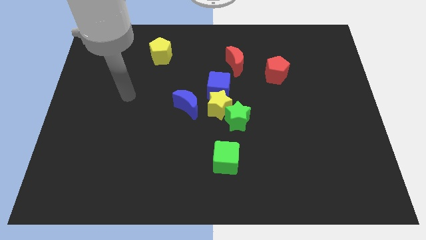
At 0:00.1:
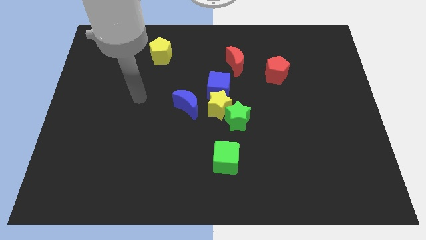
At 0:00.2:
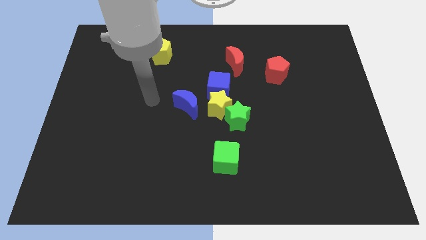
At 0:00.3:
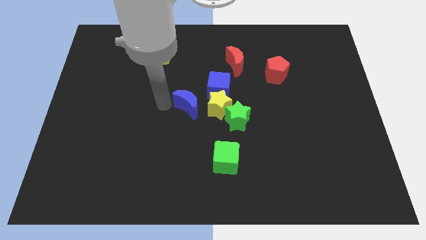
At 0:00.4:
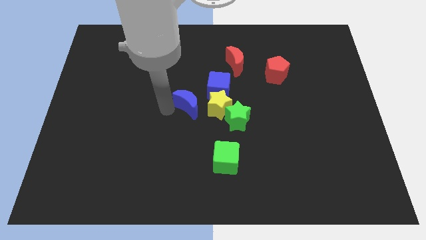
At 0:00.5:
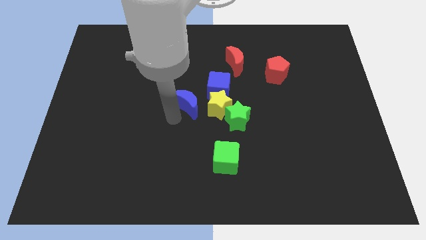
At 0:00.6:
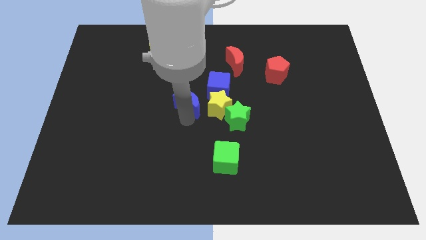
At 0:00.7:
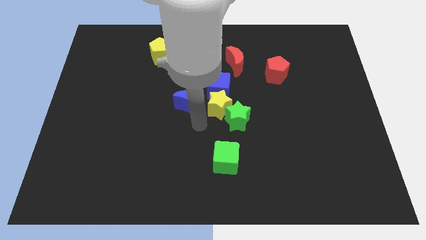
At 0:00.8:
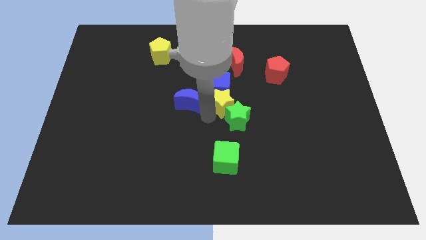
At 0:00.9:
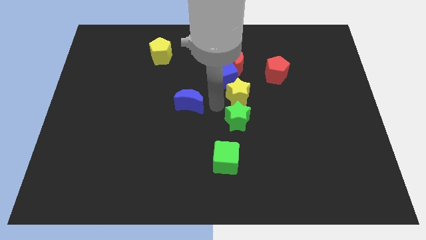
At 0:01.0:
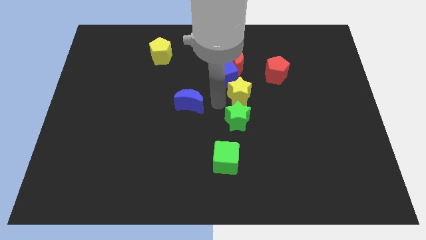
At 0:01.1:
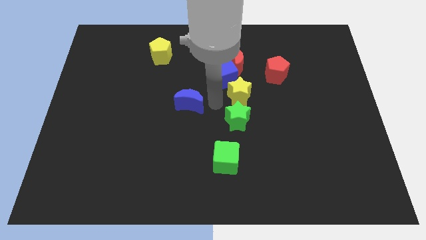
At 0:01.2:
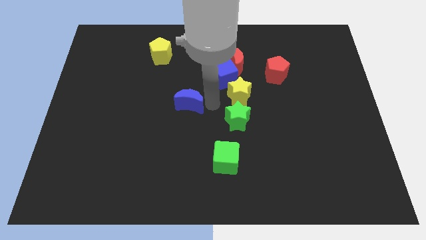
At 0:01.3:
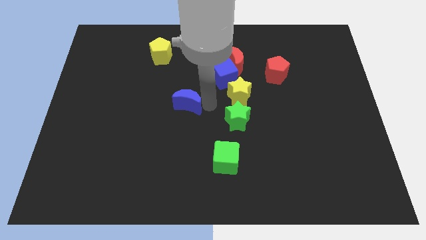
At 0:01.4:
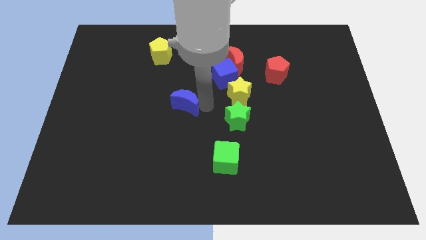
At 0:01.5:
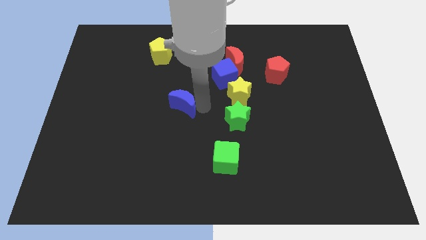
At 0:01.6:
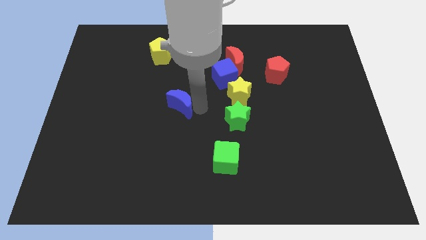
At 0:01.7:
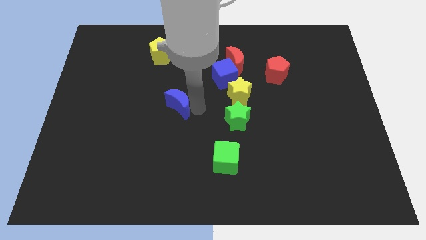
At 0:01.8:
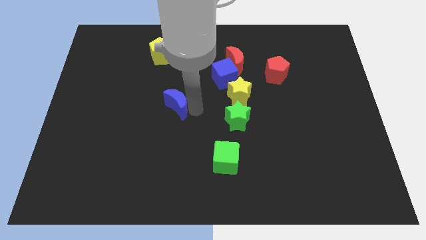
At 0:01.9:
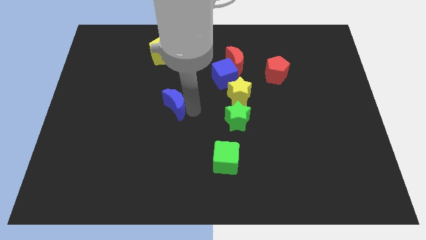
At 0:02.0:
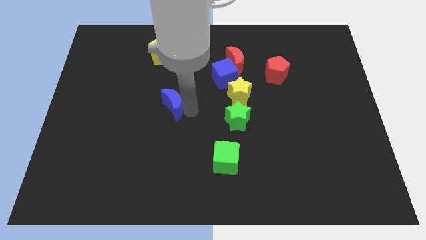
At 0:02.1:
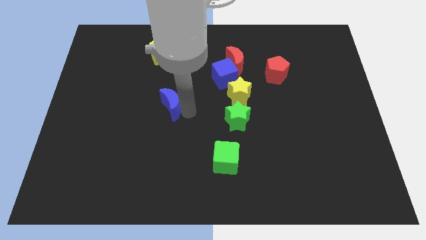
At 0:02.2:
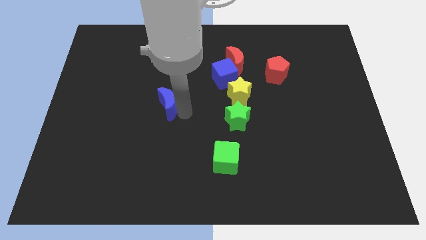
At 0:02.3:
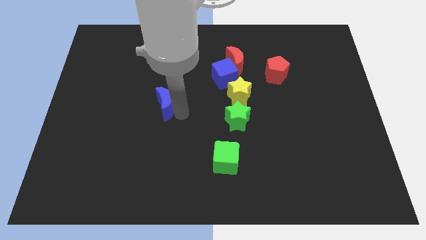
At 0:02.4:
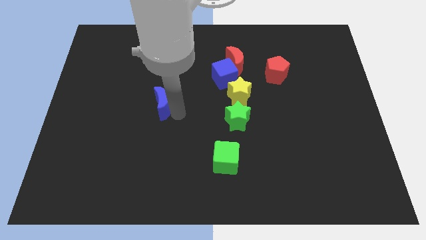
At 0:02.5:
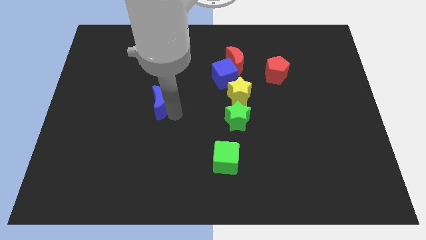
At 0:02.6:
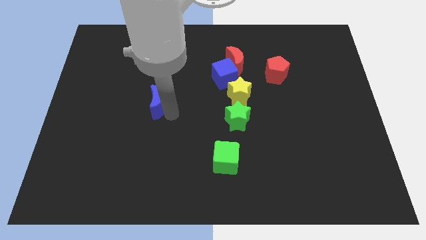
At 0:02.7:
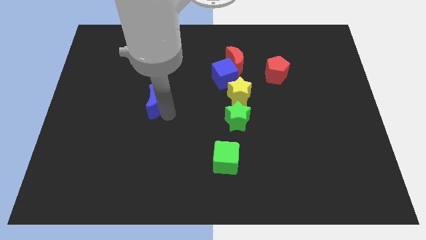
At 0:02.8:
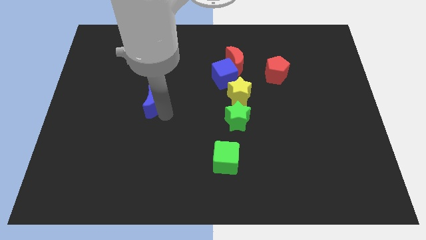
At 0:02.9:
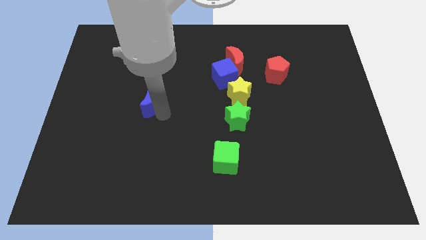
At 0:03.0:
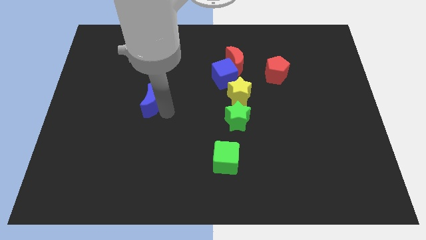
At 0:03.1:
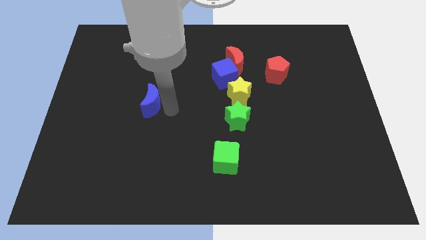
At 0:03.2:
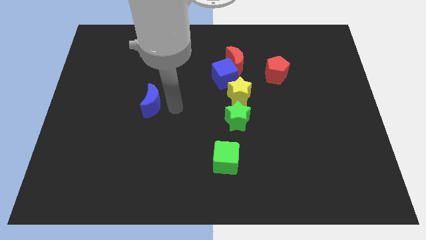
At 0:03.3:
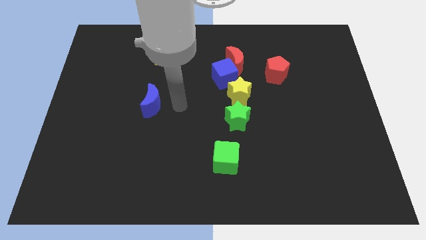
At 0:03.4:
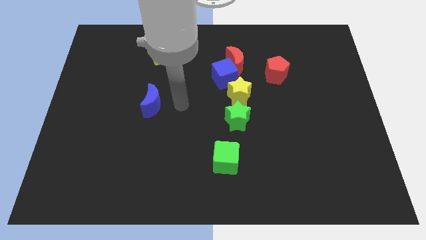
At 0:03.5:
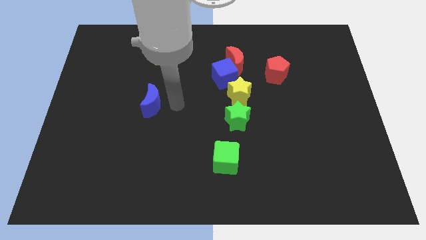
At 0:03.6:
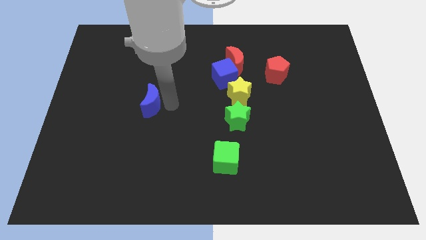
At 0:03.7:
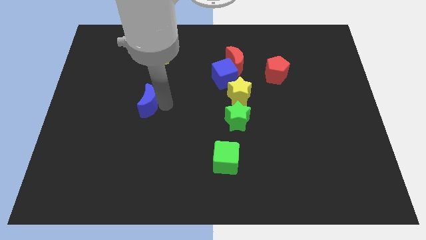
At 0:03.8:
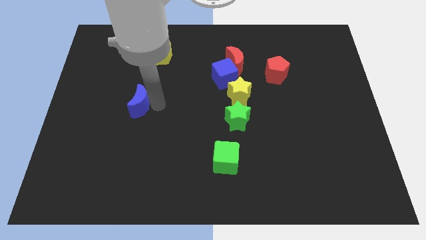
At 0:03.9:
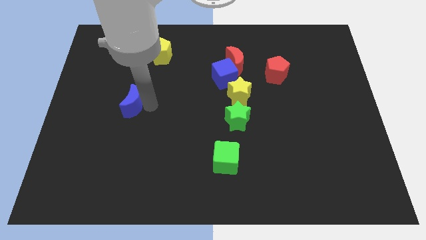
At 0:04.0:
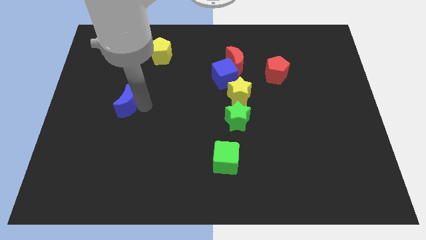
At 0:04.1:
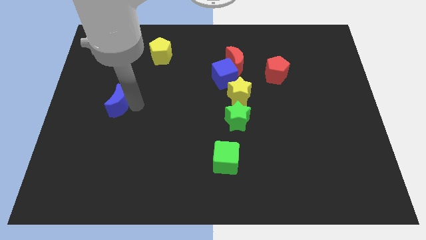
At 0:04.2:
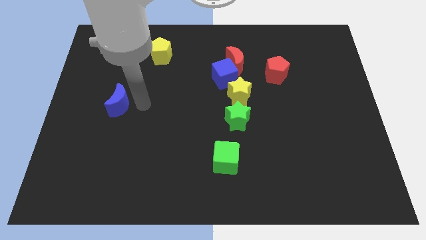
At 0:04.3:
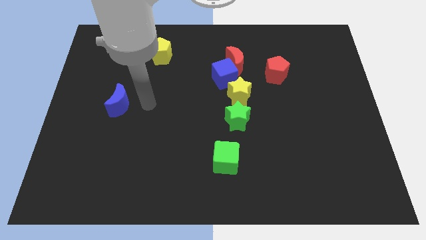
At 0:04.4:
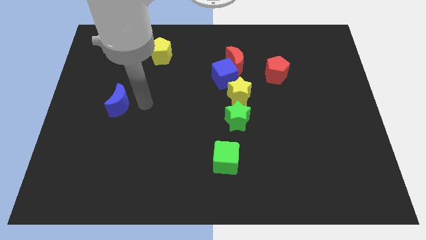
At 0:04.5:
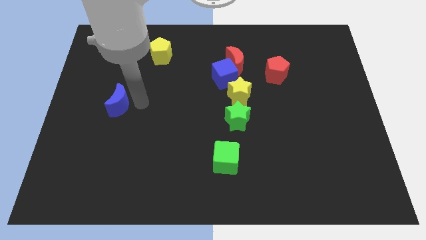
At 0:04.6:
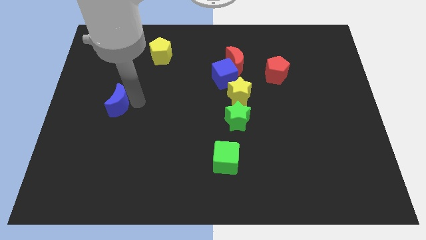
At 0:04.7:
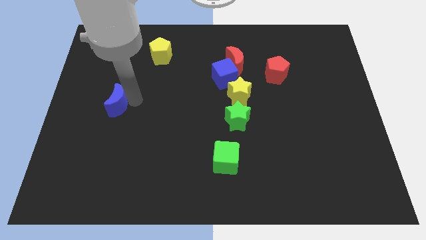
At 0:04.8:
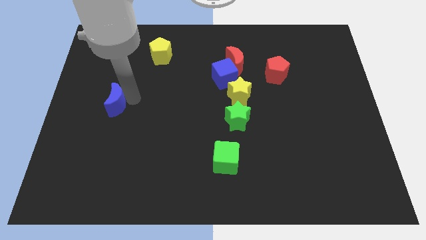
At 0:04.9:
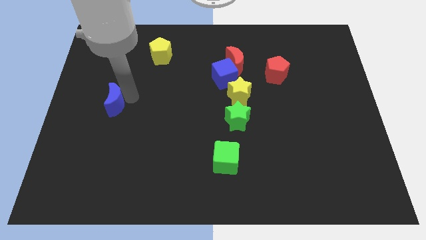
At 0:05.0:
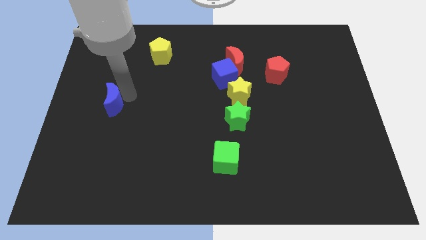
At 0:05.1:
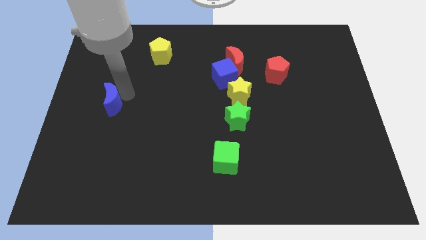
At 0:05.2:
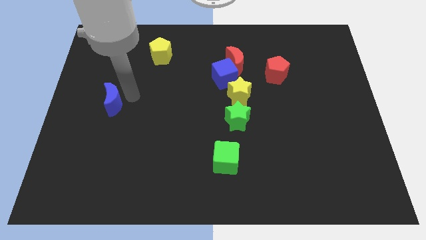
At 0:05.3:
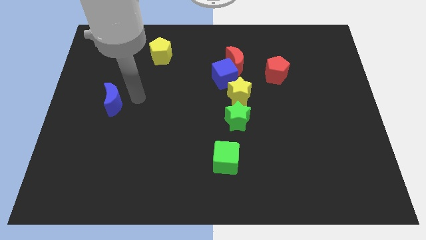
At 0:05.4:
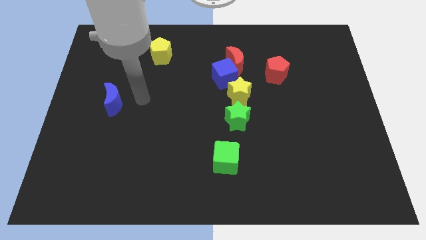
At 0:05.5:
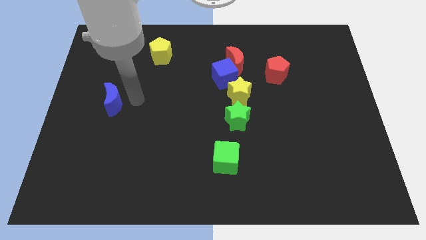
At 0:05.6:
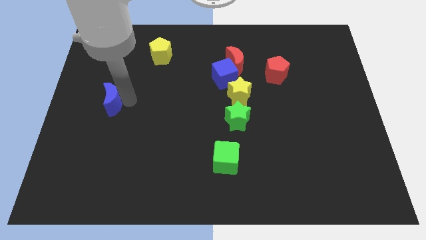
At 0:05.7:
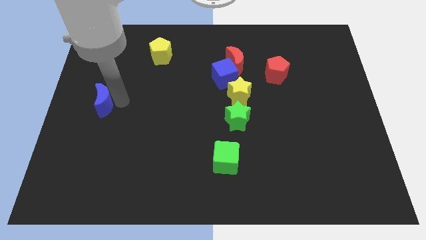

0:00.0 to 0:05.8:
move the blue moon to the center left

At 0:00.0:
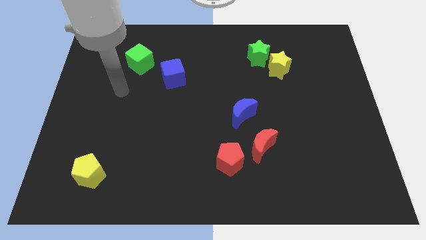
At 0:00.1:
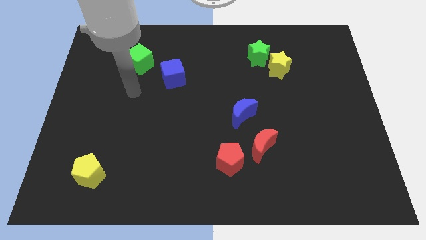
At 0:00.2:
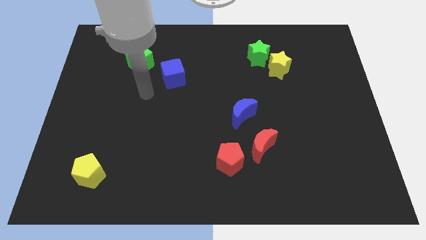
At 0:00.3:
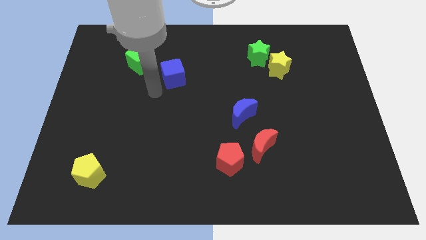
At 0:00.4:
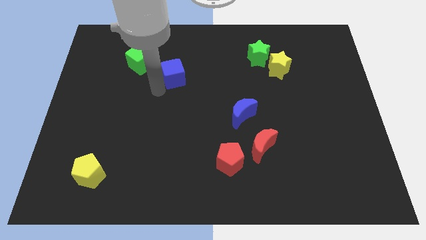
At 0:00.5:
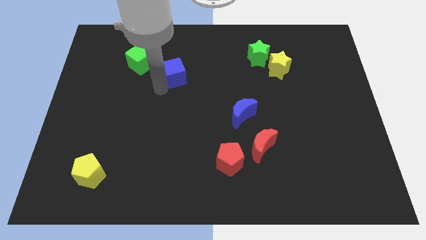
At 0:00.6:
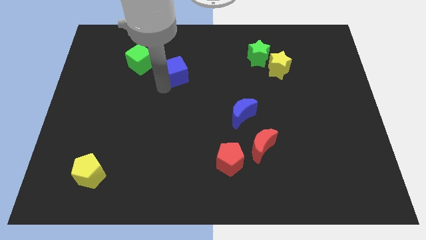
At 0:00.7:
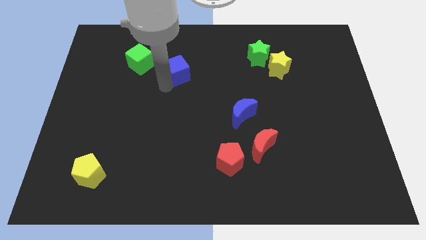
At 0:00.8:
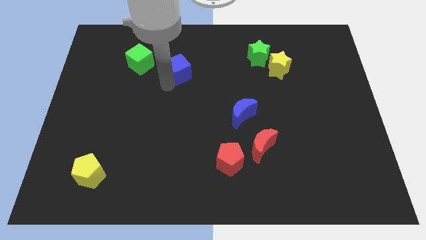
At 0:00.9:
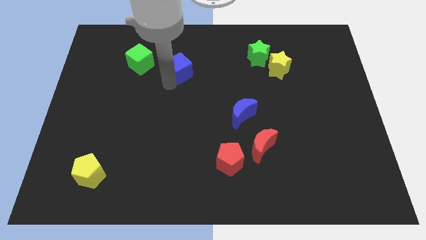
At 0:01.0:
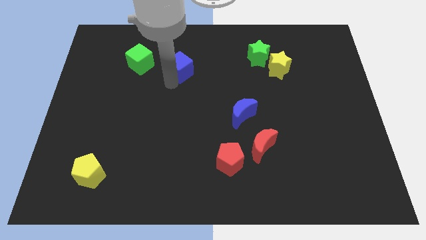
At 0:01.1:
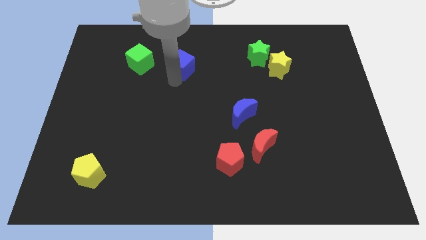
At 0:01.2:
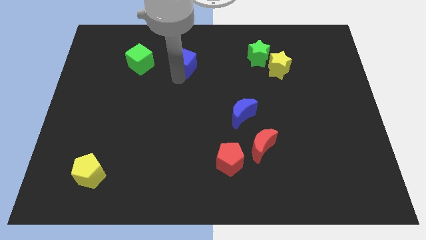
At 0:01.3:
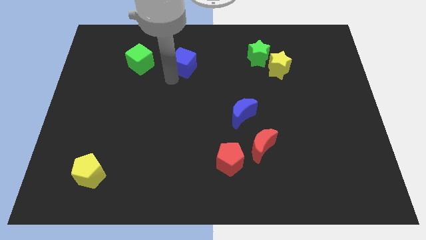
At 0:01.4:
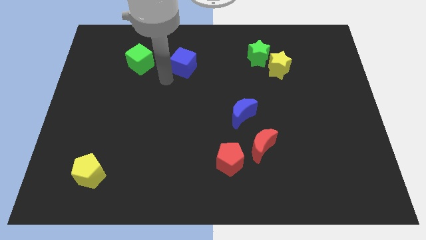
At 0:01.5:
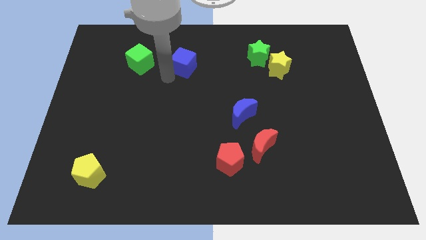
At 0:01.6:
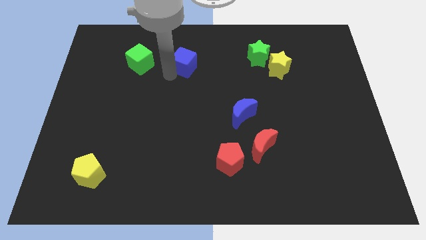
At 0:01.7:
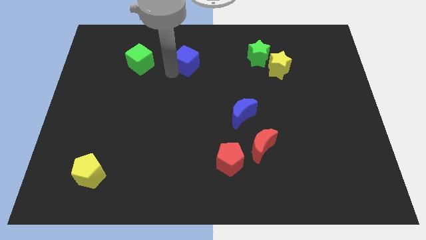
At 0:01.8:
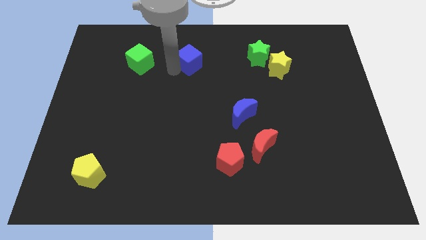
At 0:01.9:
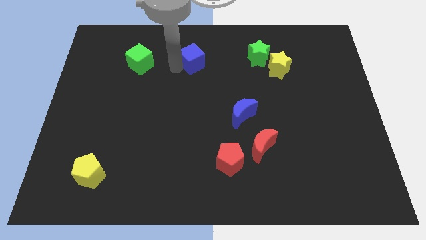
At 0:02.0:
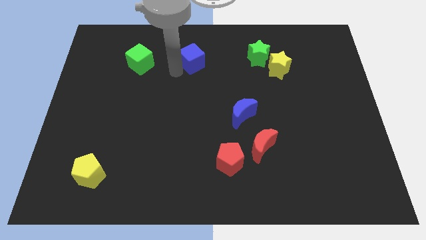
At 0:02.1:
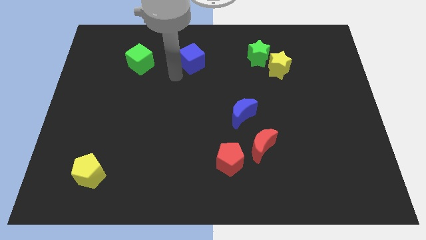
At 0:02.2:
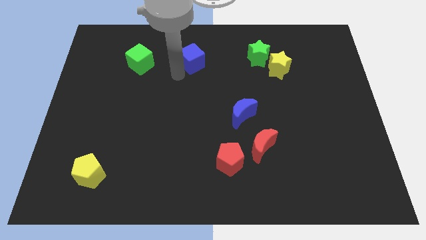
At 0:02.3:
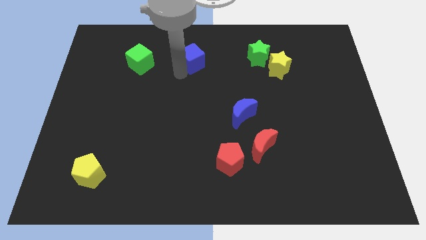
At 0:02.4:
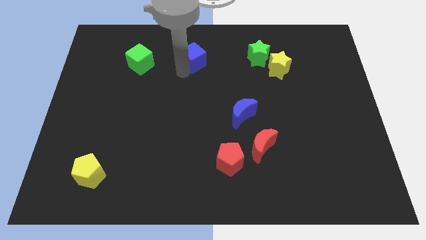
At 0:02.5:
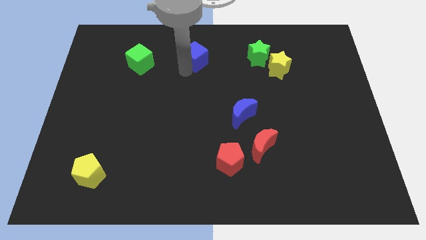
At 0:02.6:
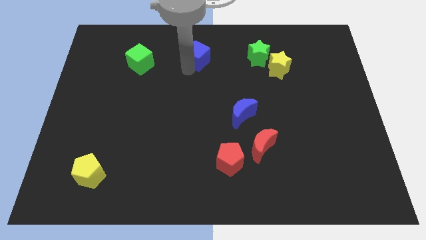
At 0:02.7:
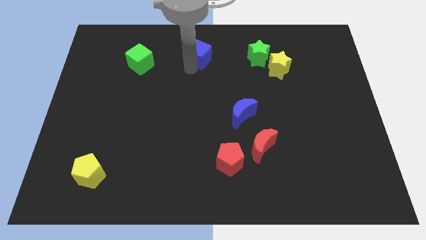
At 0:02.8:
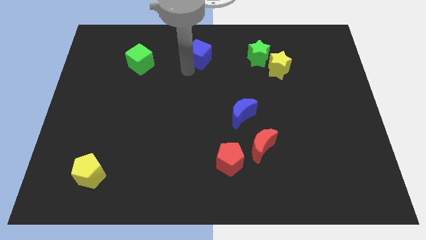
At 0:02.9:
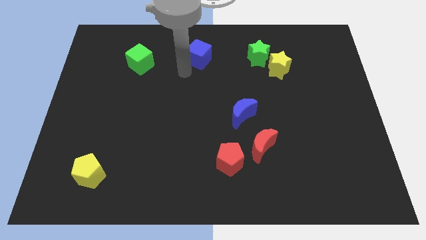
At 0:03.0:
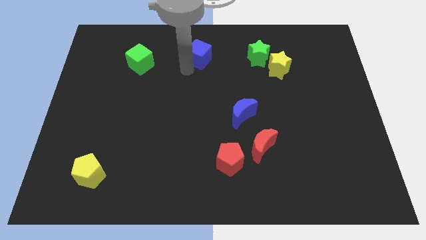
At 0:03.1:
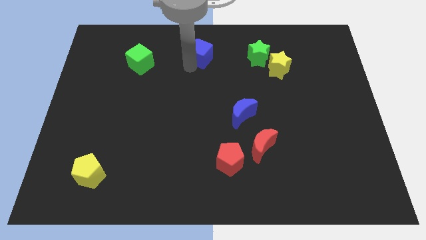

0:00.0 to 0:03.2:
push the blue cube to the towards your base
